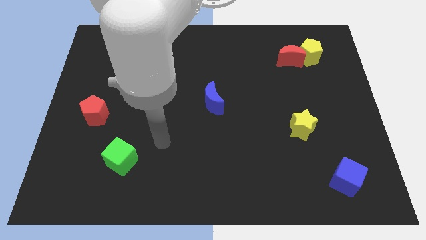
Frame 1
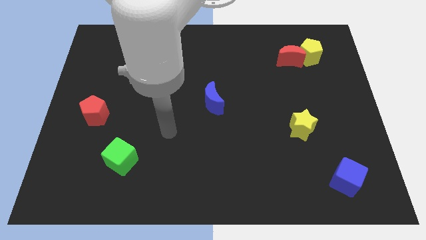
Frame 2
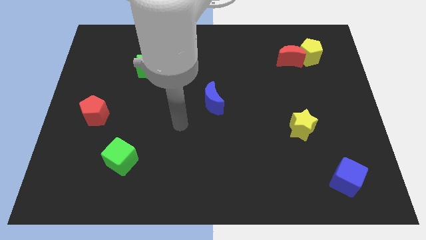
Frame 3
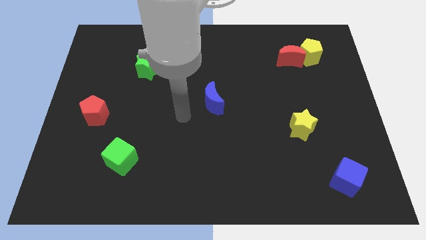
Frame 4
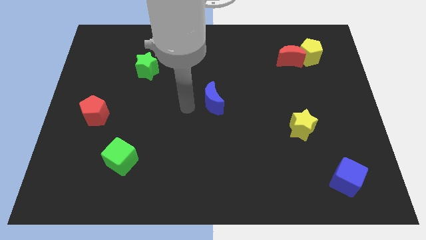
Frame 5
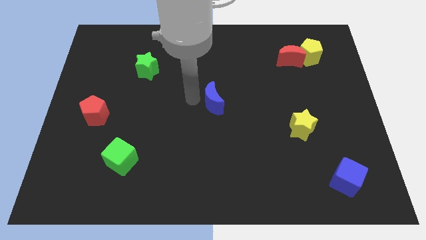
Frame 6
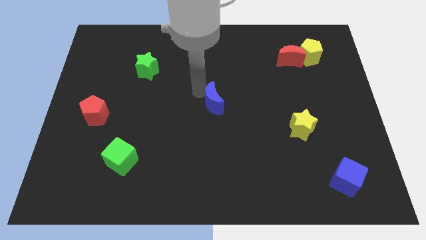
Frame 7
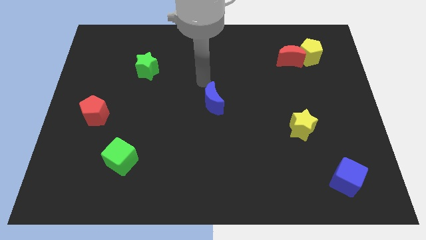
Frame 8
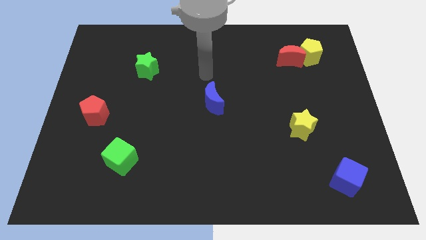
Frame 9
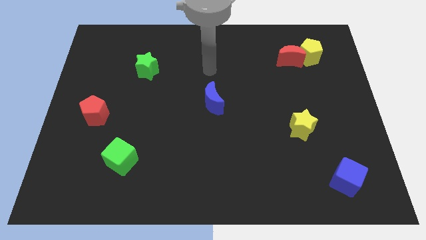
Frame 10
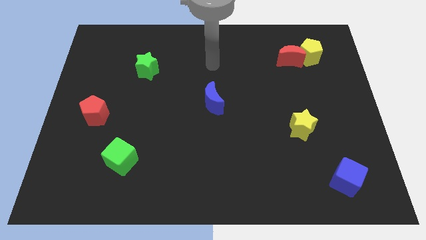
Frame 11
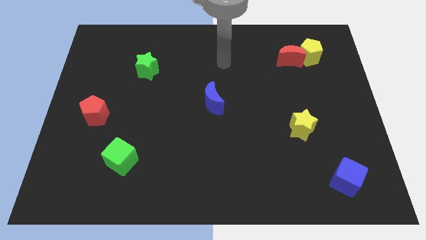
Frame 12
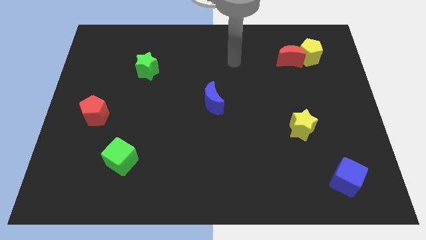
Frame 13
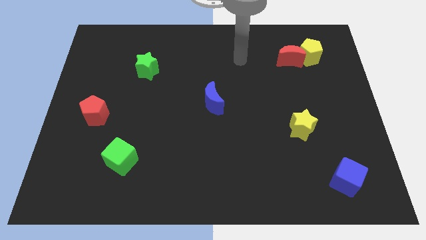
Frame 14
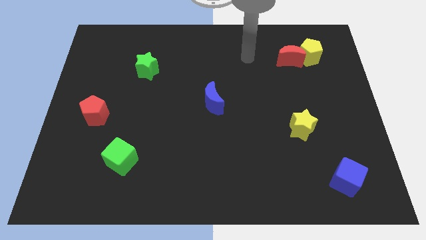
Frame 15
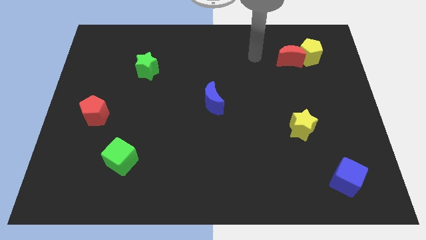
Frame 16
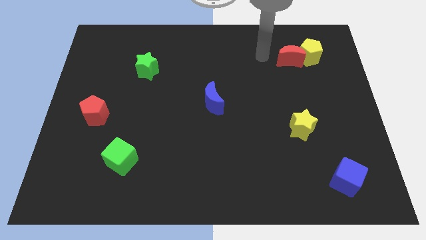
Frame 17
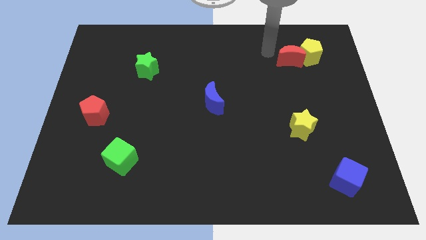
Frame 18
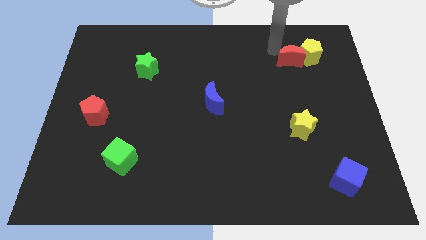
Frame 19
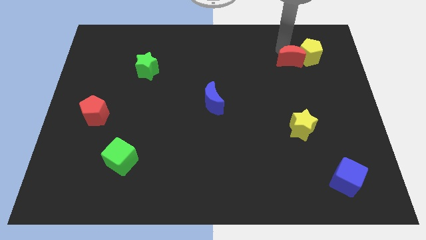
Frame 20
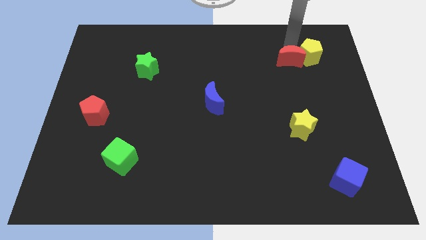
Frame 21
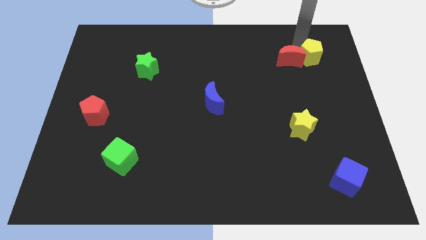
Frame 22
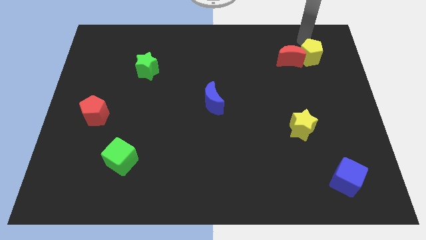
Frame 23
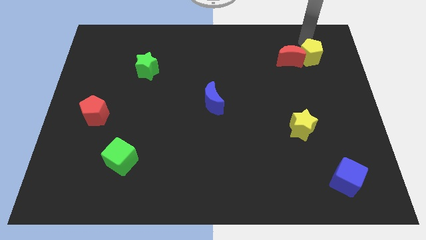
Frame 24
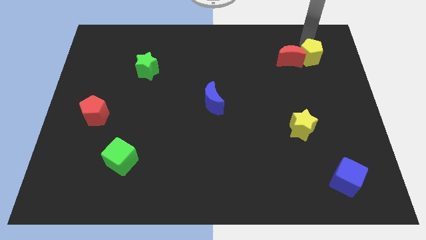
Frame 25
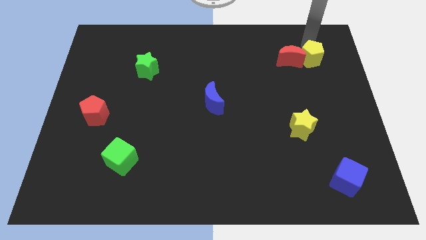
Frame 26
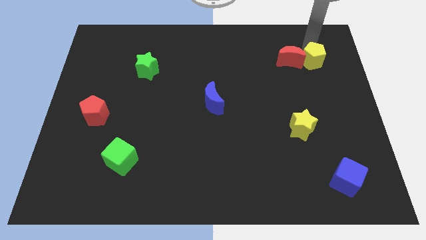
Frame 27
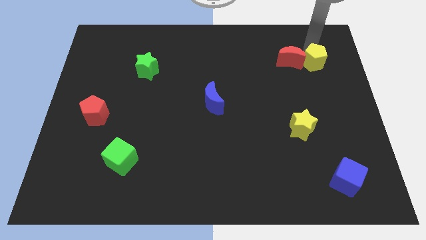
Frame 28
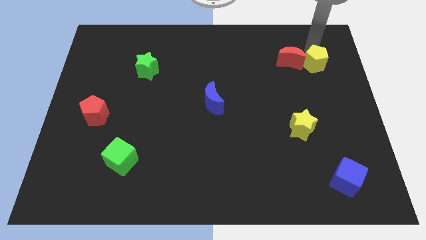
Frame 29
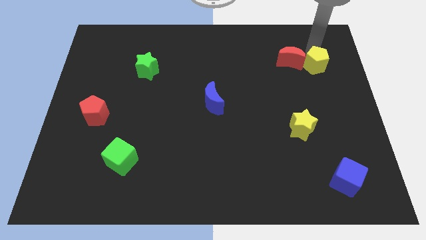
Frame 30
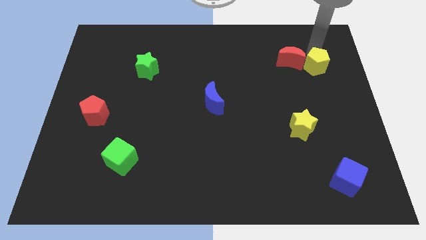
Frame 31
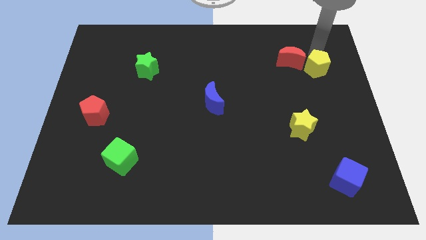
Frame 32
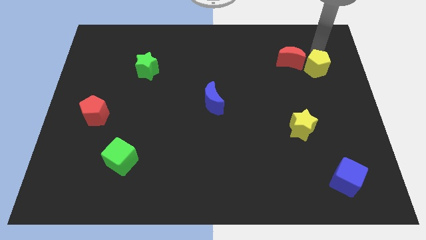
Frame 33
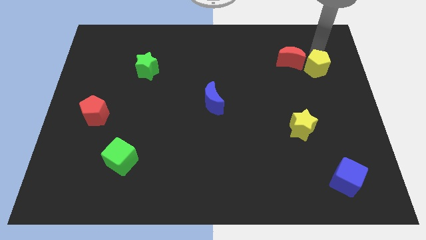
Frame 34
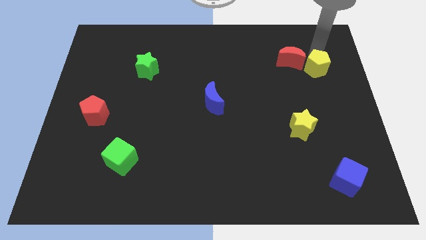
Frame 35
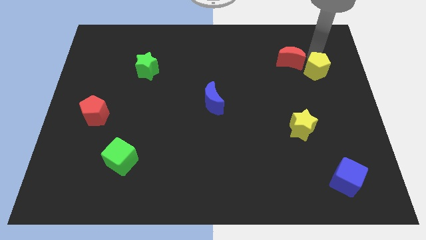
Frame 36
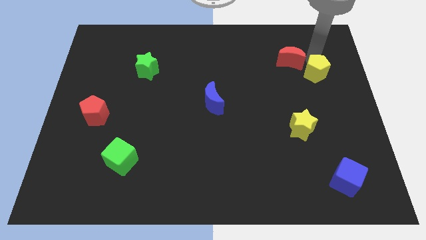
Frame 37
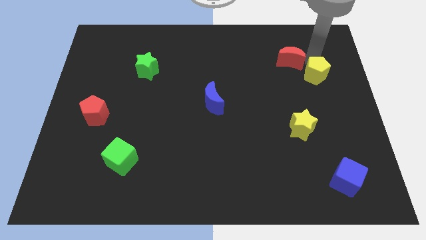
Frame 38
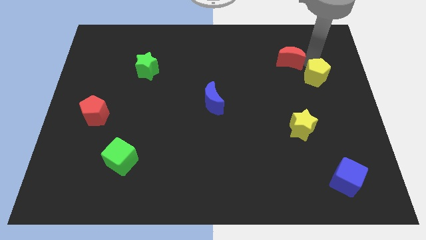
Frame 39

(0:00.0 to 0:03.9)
move the yellow pentagon somewhat down

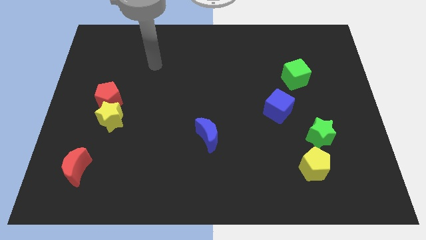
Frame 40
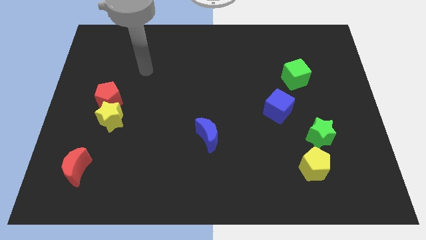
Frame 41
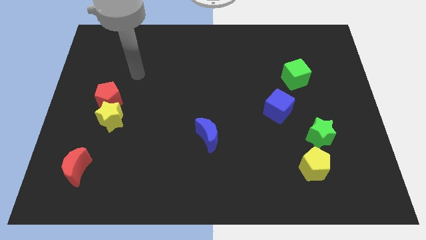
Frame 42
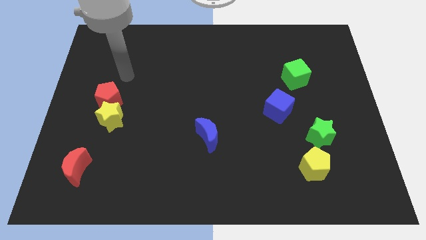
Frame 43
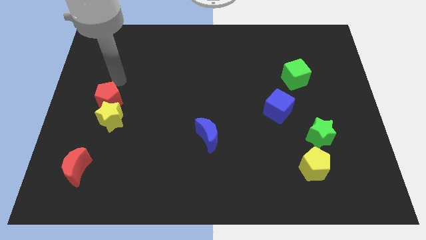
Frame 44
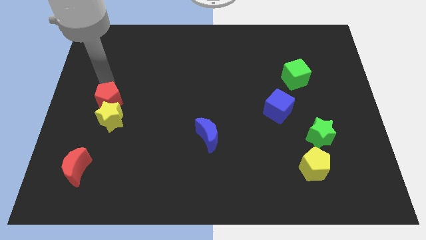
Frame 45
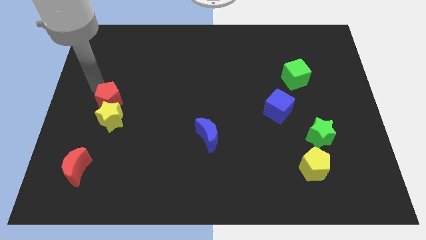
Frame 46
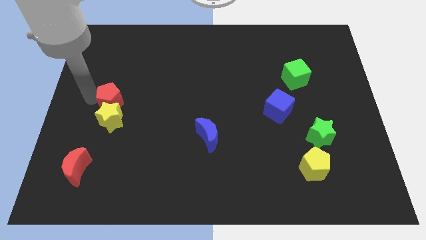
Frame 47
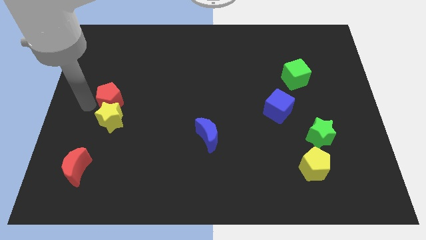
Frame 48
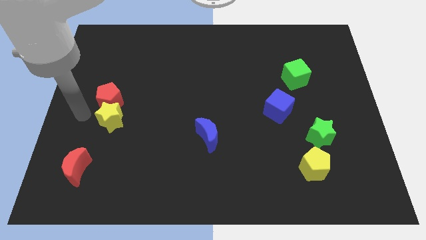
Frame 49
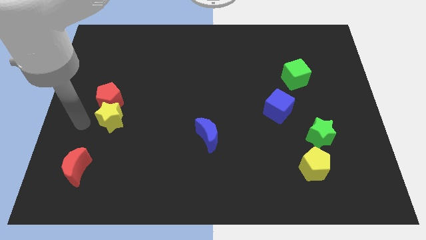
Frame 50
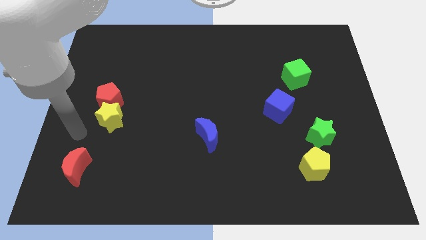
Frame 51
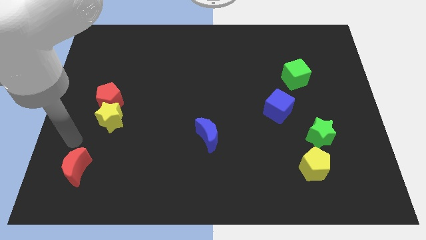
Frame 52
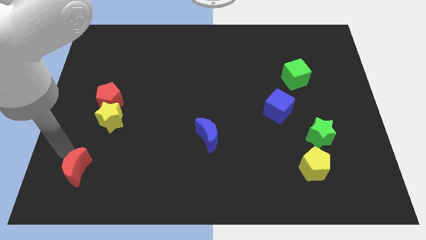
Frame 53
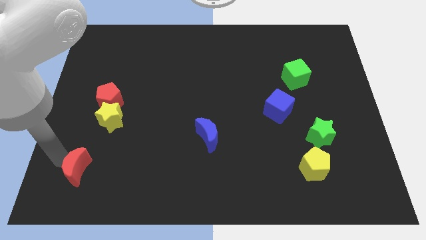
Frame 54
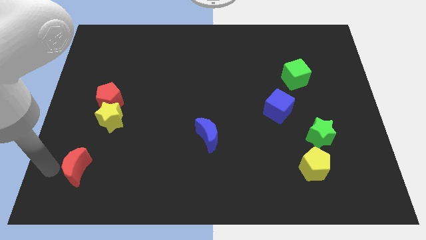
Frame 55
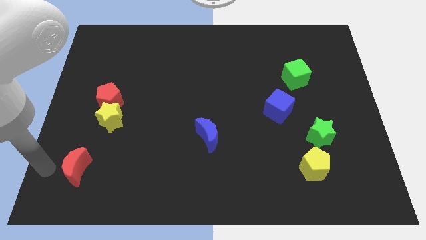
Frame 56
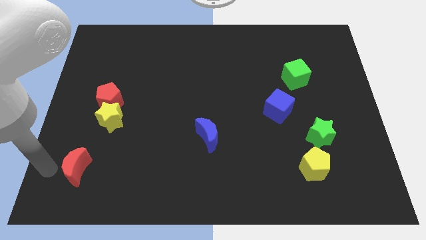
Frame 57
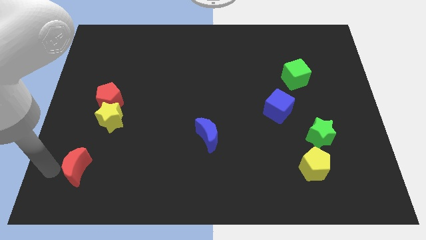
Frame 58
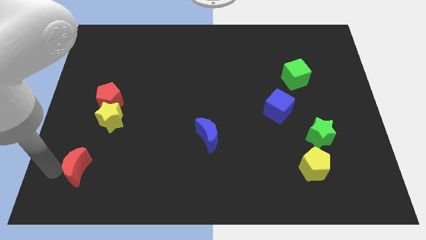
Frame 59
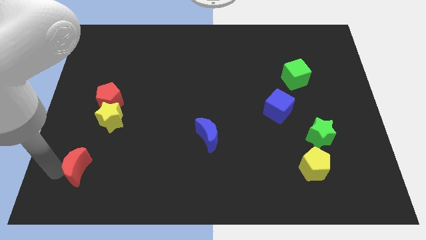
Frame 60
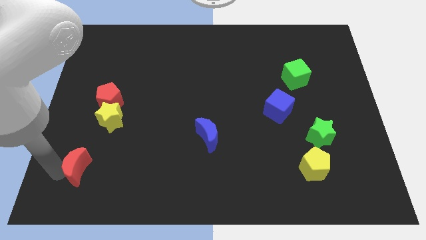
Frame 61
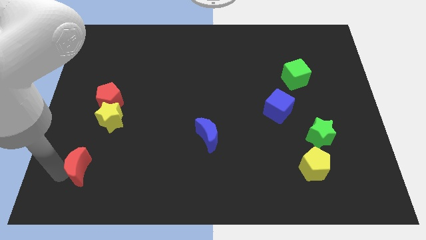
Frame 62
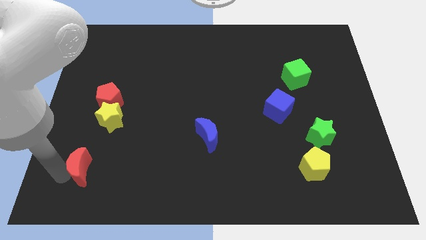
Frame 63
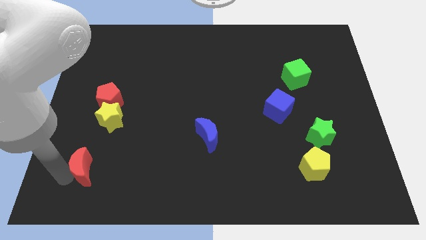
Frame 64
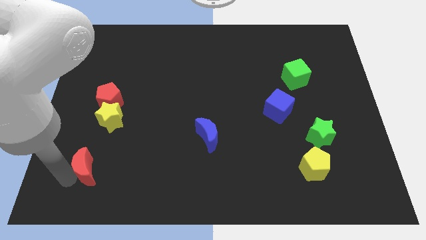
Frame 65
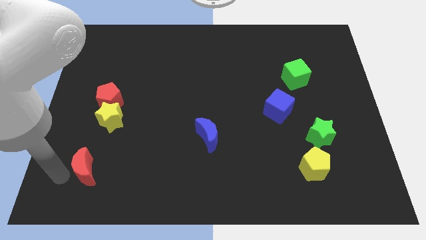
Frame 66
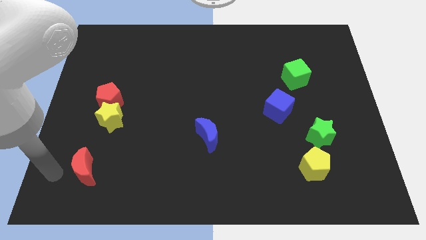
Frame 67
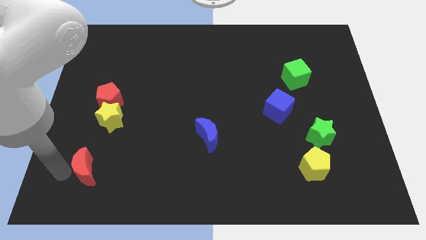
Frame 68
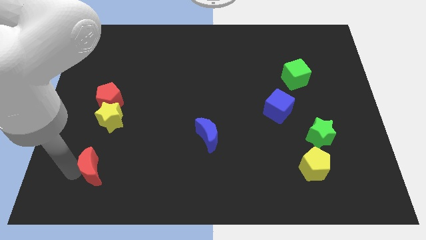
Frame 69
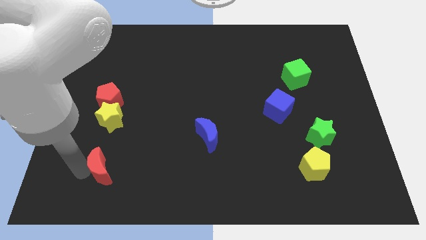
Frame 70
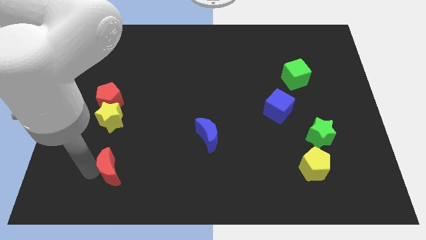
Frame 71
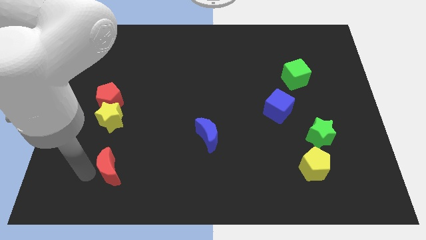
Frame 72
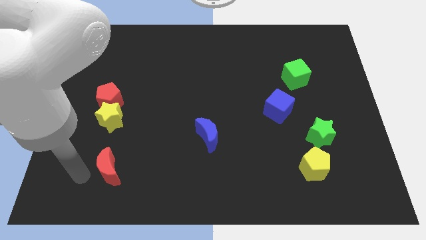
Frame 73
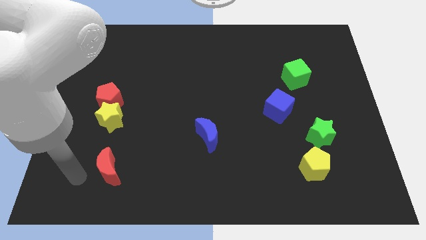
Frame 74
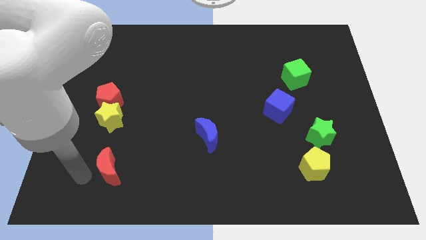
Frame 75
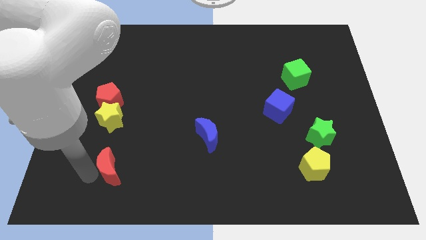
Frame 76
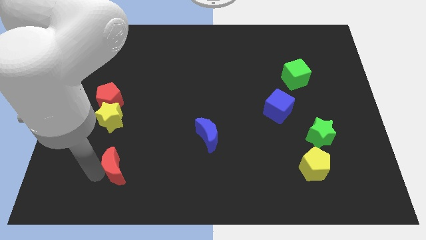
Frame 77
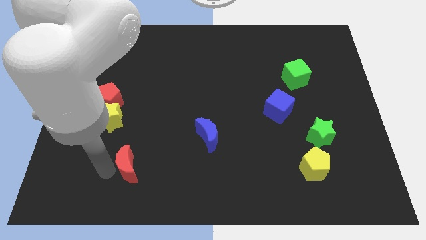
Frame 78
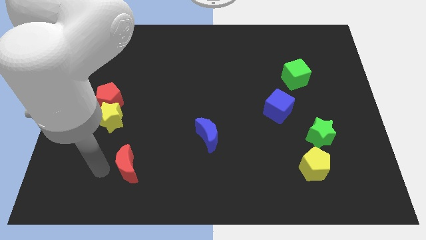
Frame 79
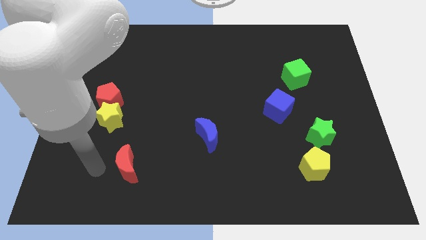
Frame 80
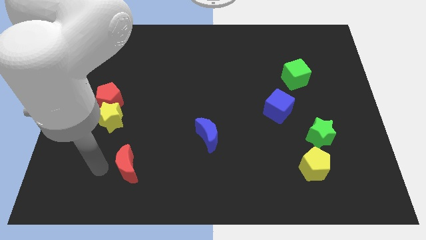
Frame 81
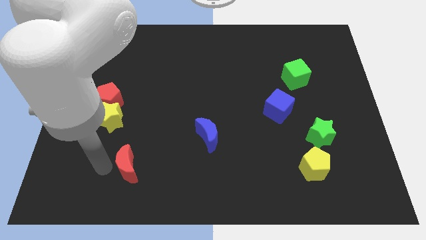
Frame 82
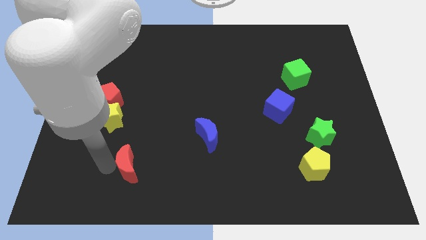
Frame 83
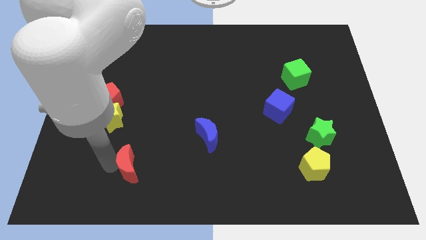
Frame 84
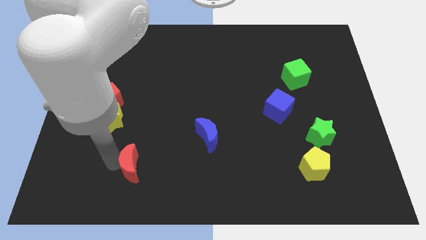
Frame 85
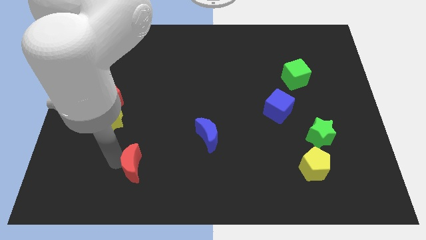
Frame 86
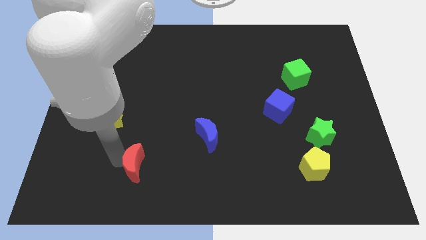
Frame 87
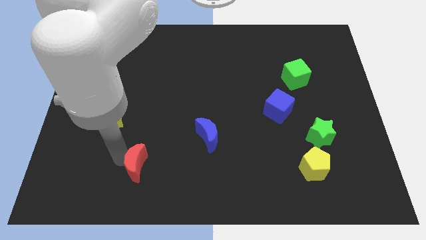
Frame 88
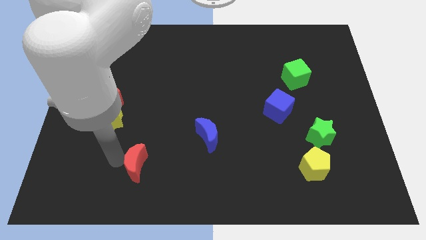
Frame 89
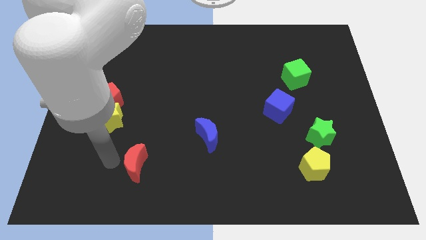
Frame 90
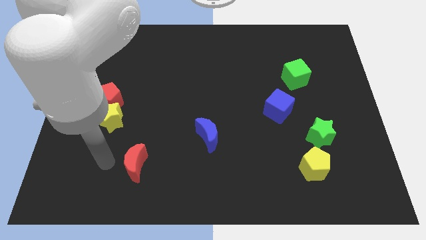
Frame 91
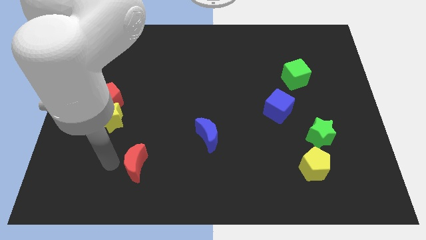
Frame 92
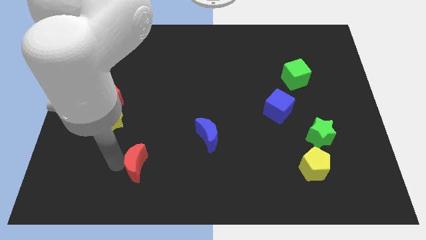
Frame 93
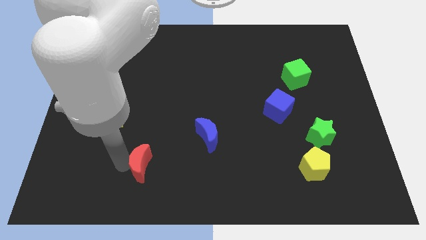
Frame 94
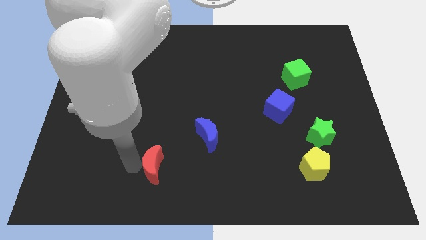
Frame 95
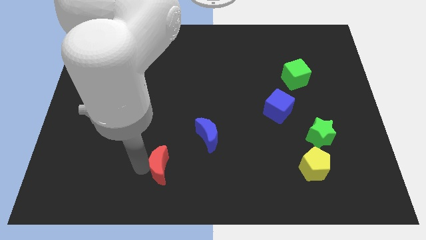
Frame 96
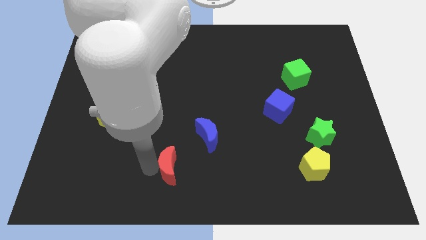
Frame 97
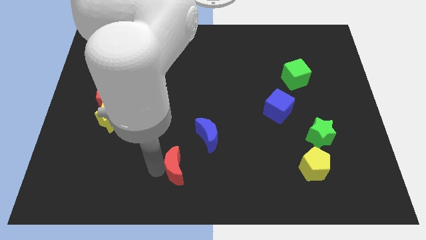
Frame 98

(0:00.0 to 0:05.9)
push the red moon right
